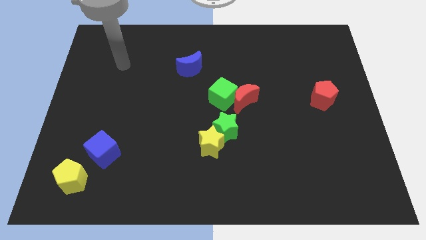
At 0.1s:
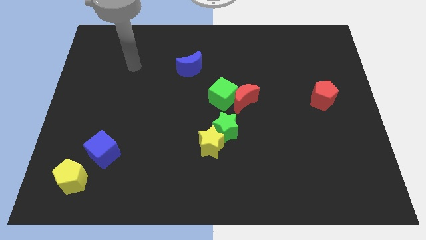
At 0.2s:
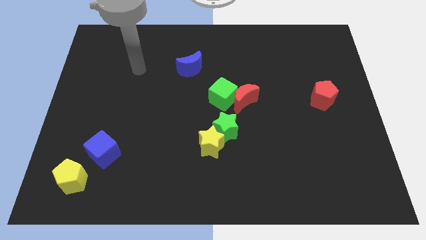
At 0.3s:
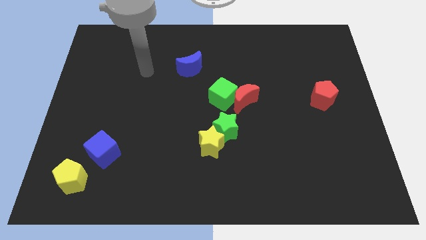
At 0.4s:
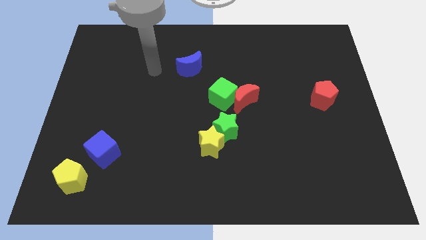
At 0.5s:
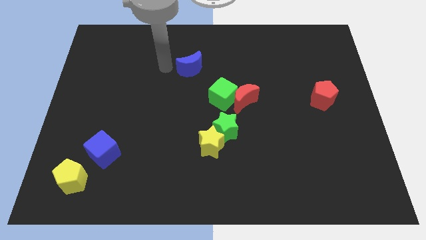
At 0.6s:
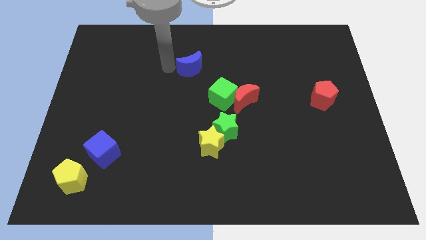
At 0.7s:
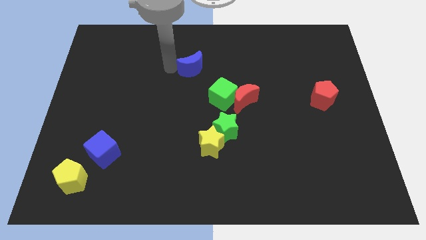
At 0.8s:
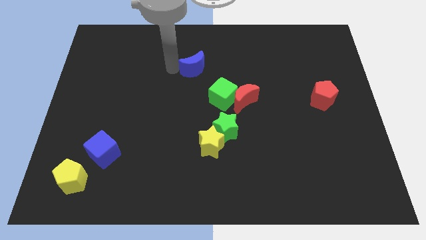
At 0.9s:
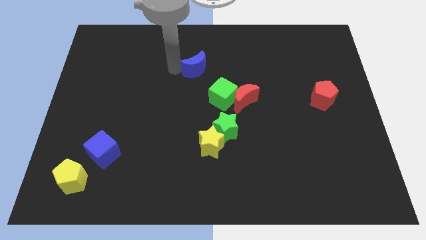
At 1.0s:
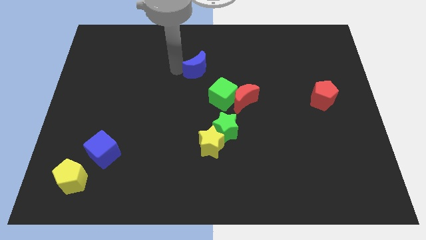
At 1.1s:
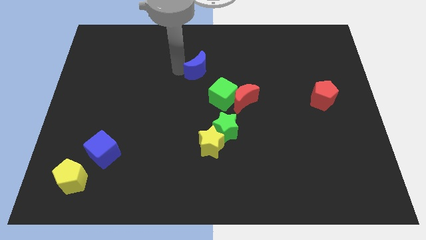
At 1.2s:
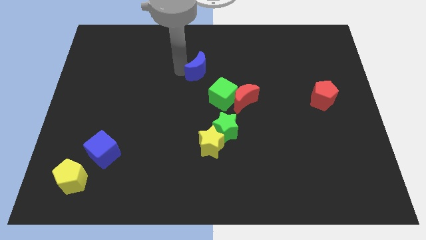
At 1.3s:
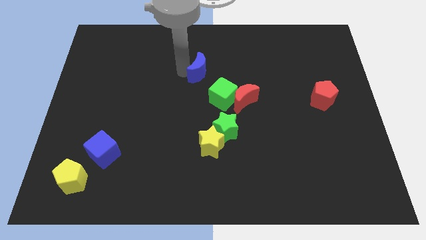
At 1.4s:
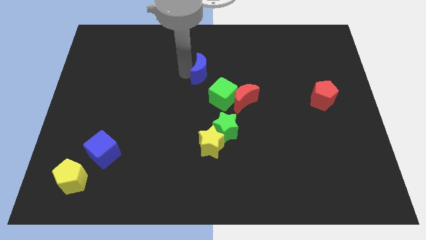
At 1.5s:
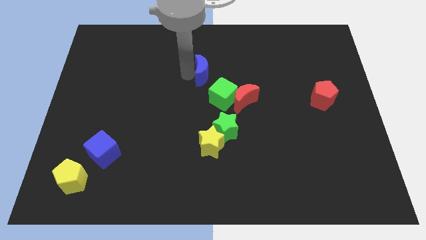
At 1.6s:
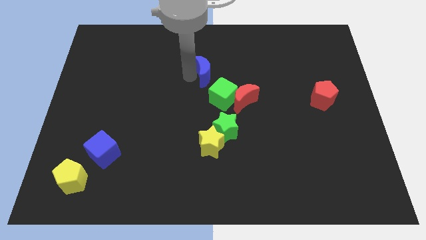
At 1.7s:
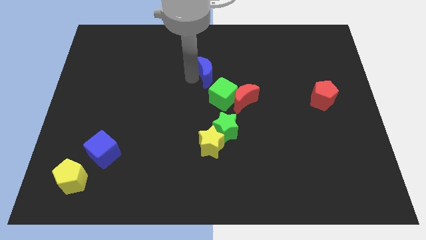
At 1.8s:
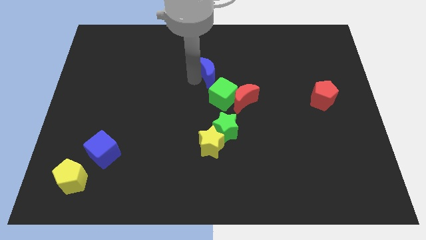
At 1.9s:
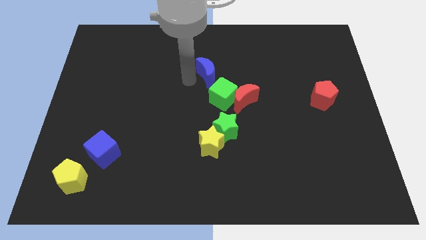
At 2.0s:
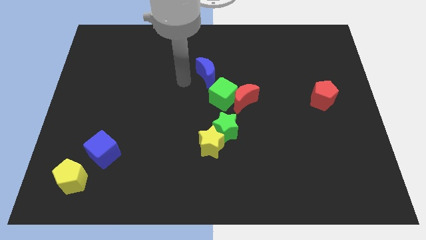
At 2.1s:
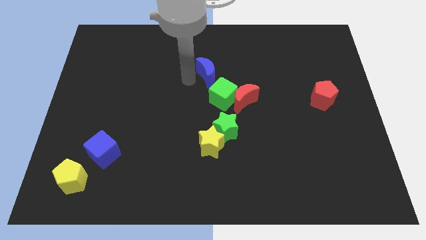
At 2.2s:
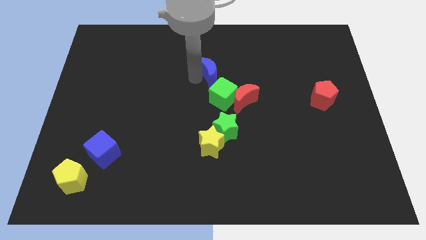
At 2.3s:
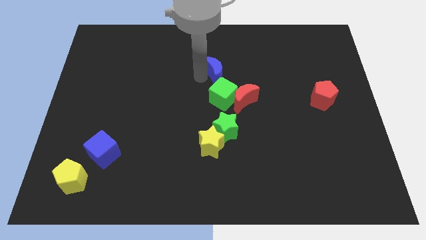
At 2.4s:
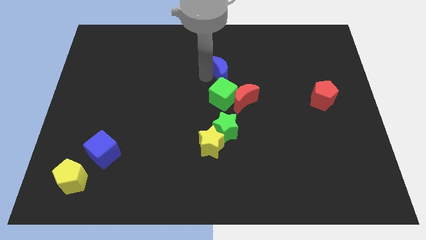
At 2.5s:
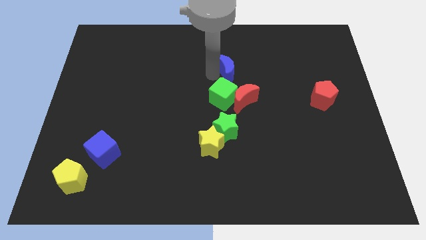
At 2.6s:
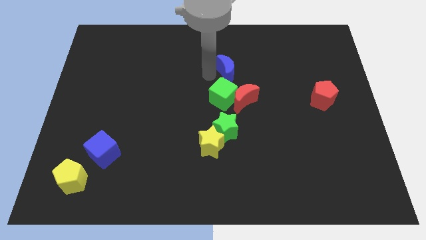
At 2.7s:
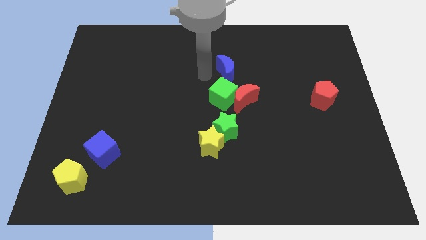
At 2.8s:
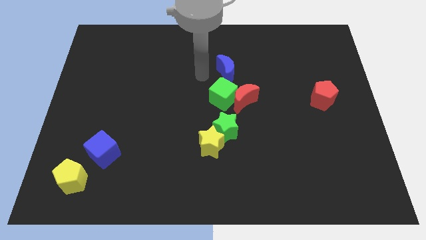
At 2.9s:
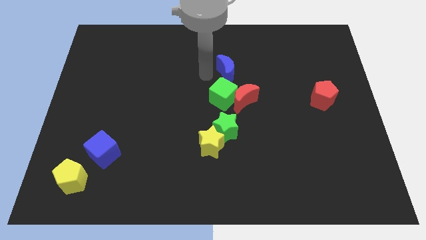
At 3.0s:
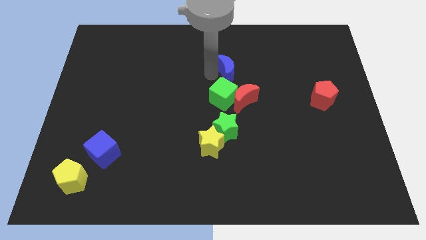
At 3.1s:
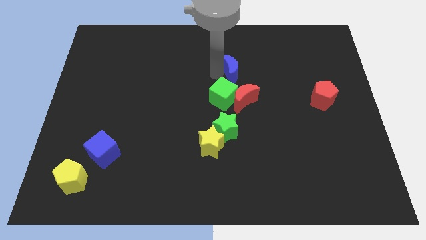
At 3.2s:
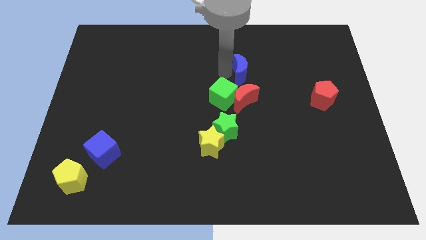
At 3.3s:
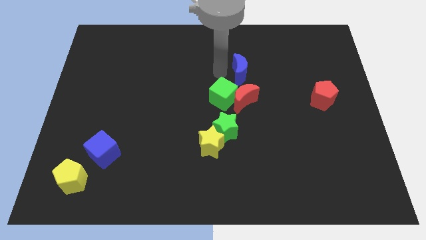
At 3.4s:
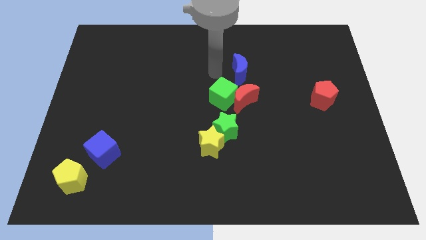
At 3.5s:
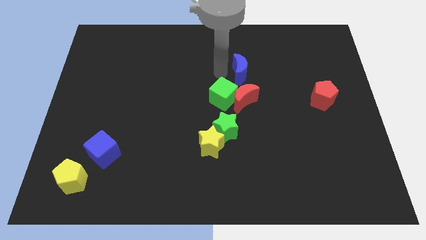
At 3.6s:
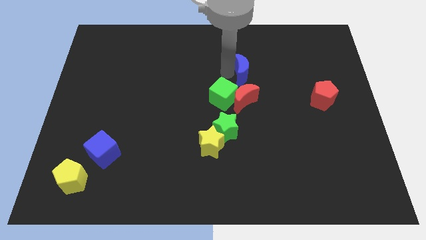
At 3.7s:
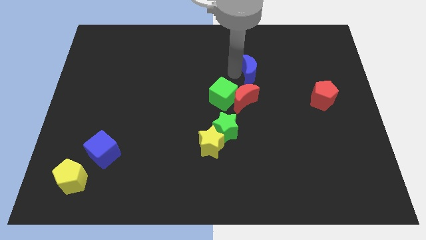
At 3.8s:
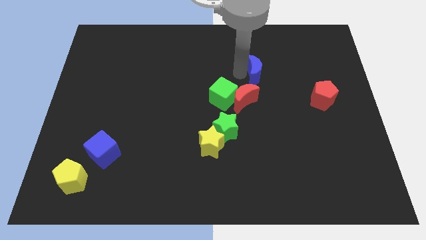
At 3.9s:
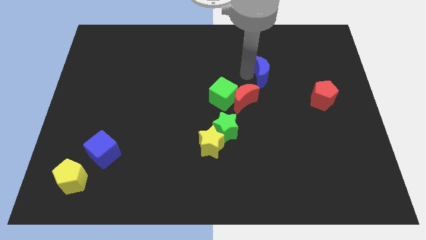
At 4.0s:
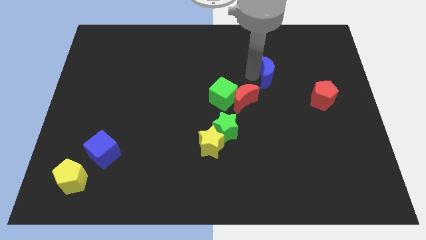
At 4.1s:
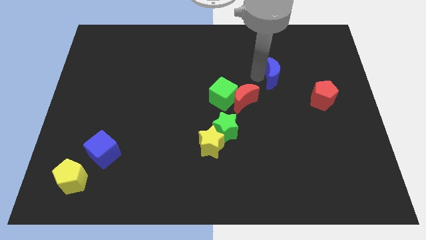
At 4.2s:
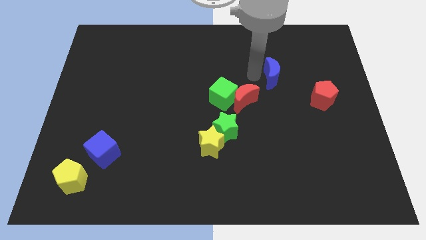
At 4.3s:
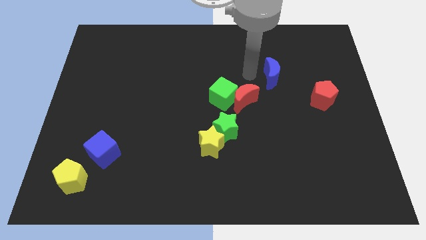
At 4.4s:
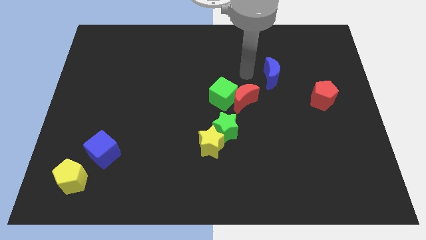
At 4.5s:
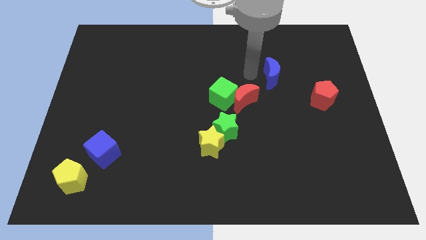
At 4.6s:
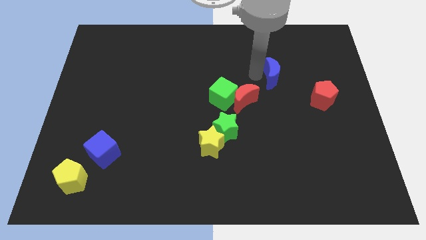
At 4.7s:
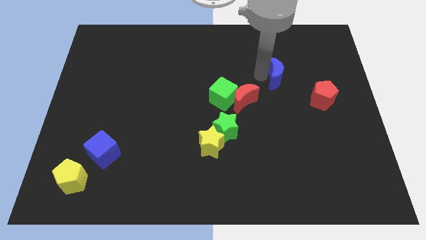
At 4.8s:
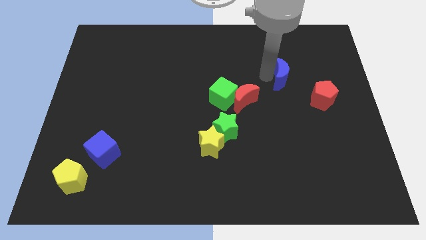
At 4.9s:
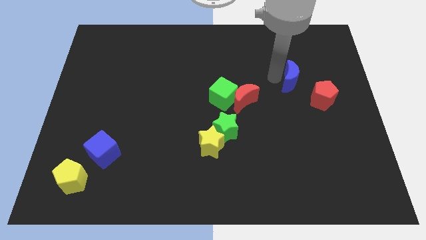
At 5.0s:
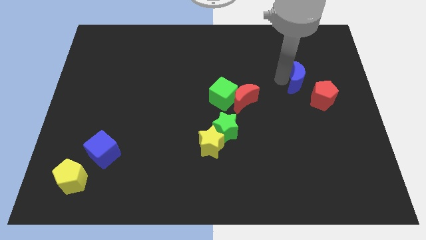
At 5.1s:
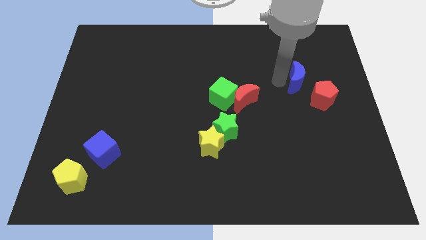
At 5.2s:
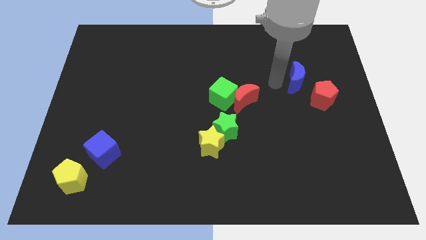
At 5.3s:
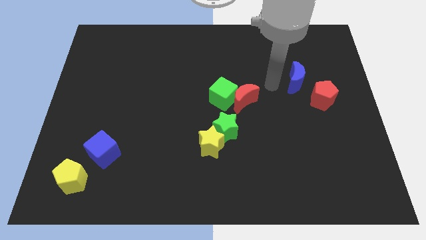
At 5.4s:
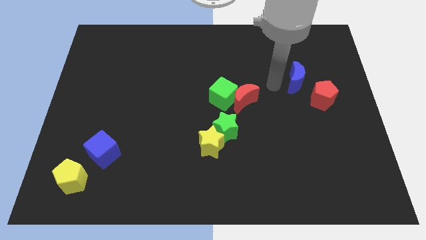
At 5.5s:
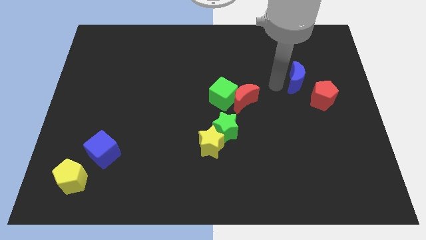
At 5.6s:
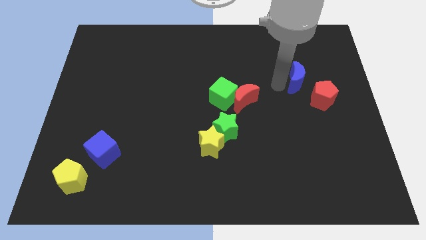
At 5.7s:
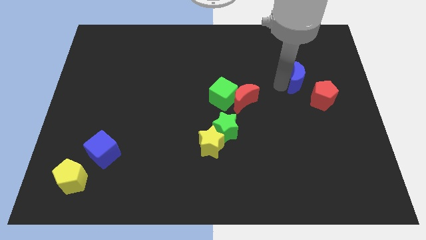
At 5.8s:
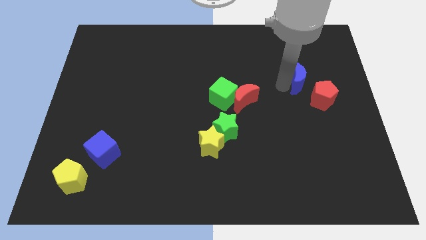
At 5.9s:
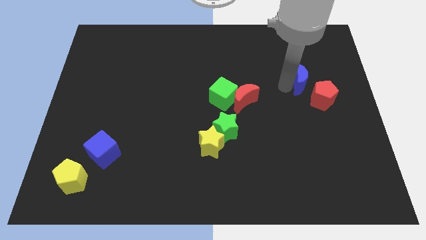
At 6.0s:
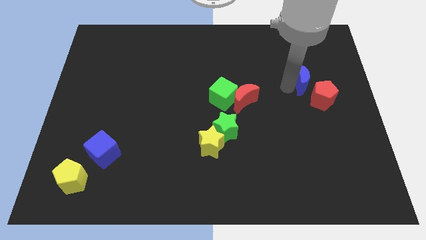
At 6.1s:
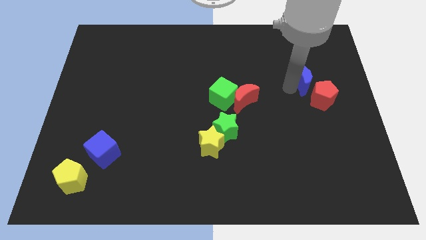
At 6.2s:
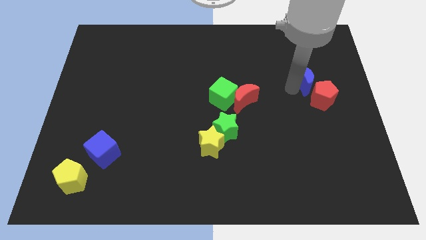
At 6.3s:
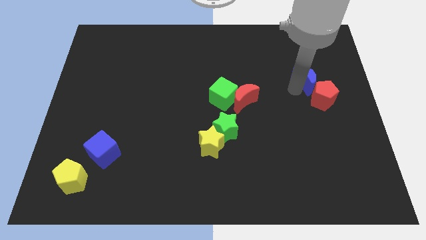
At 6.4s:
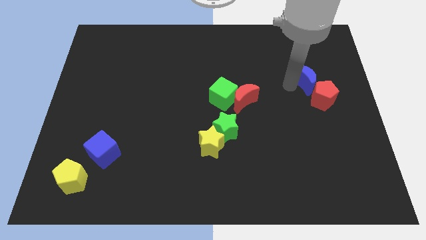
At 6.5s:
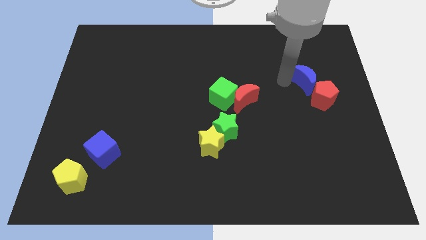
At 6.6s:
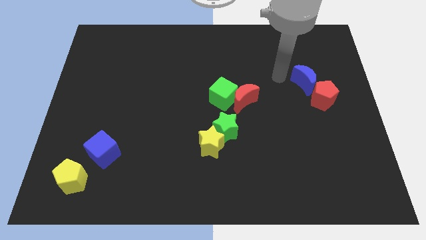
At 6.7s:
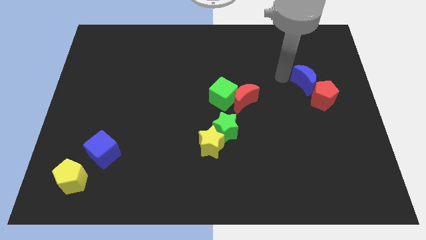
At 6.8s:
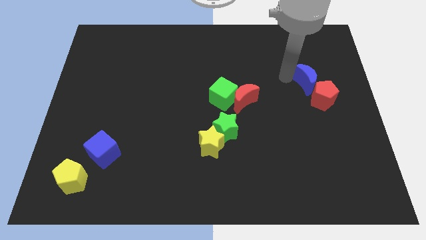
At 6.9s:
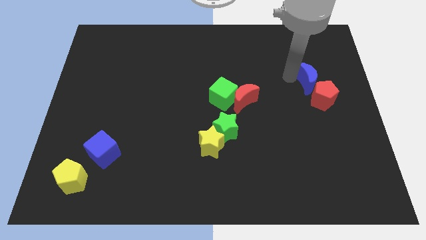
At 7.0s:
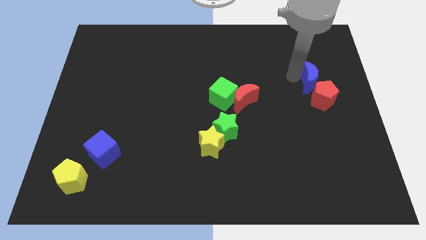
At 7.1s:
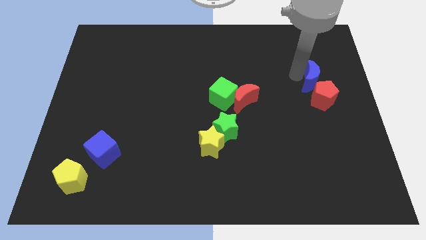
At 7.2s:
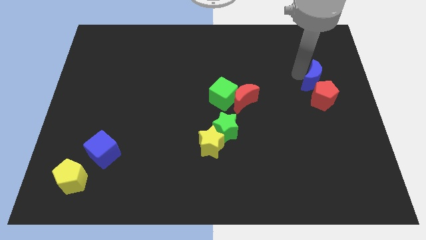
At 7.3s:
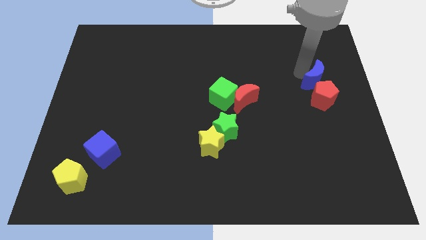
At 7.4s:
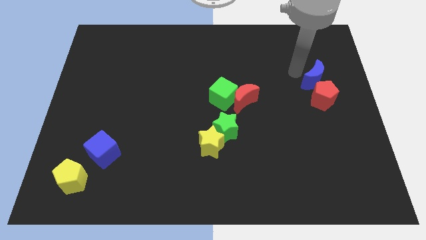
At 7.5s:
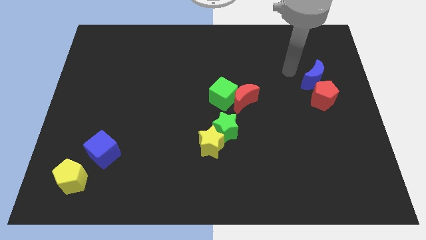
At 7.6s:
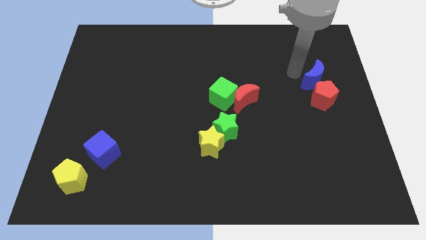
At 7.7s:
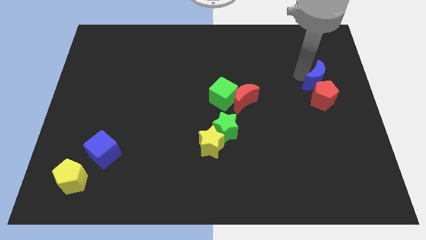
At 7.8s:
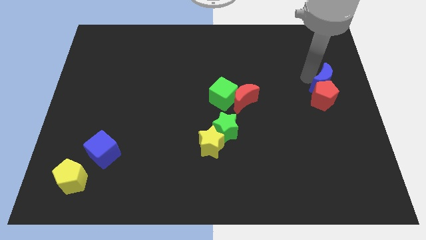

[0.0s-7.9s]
push the blue moon to the right side
